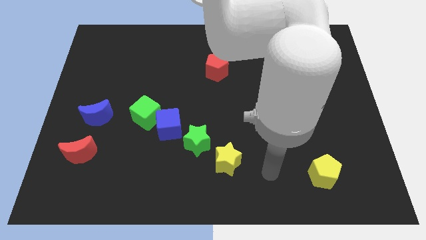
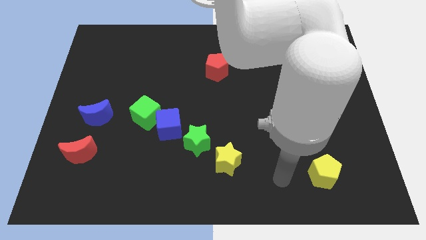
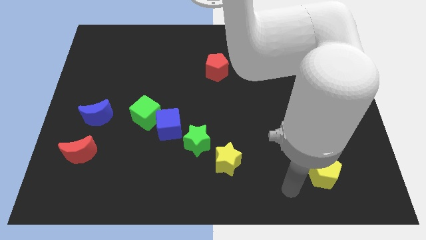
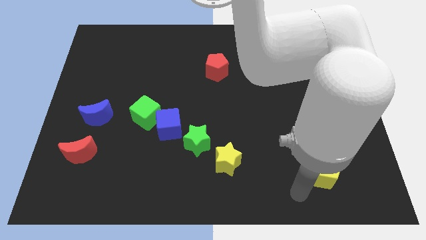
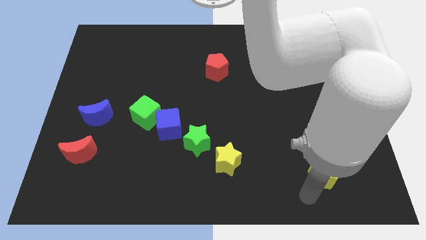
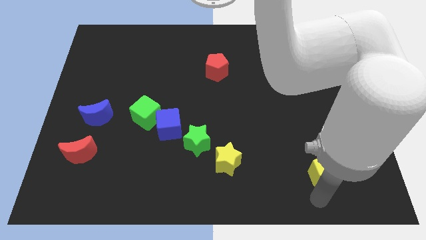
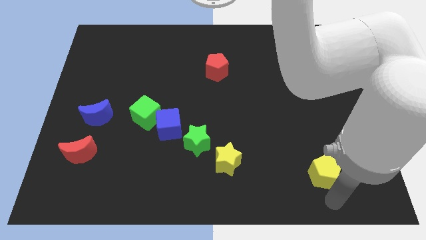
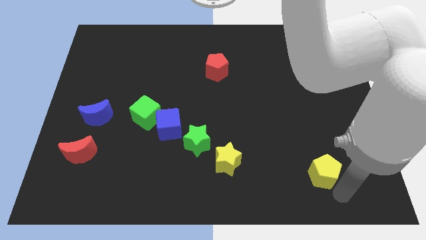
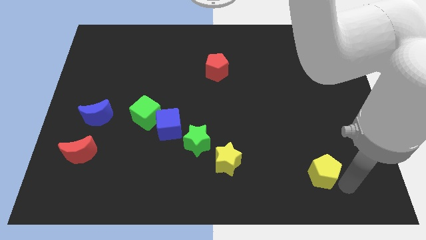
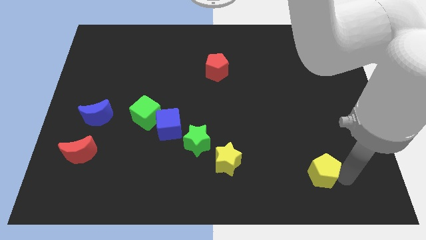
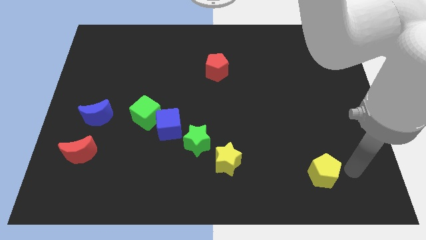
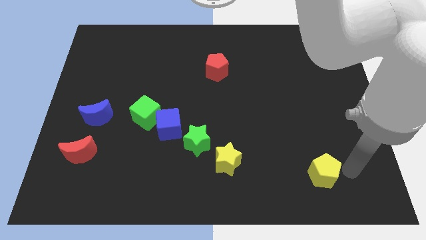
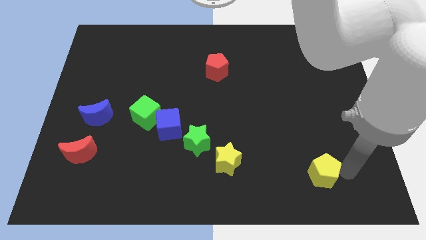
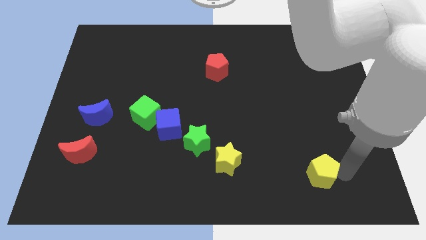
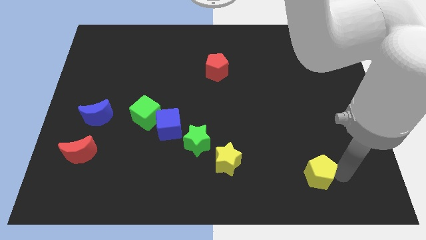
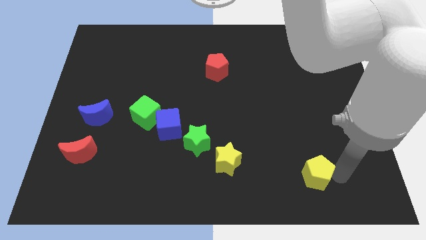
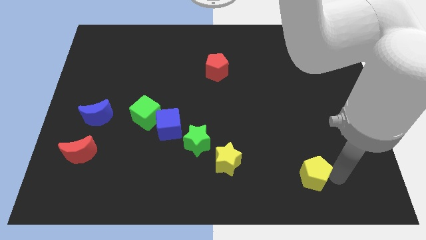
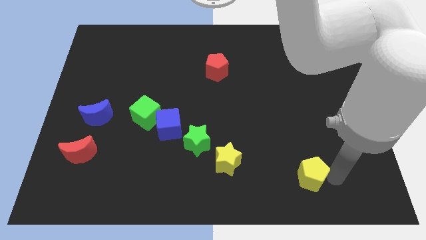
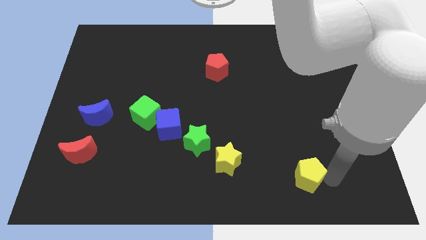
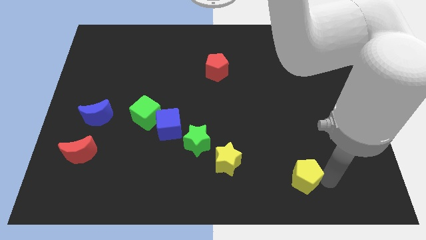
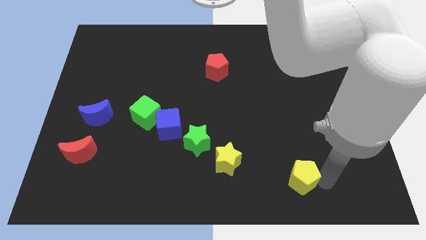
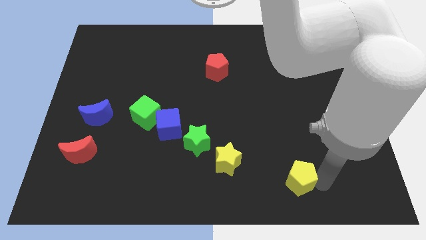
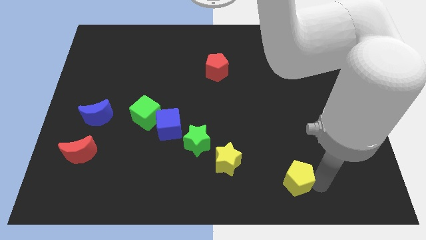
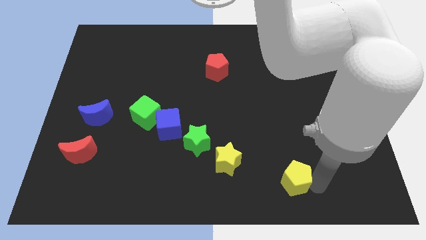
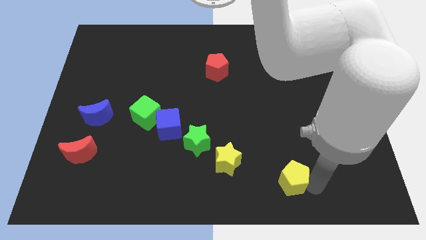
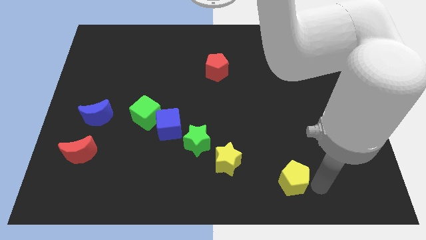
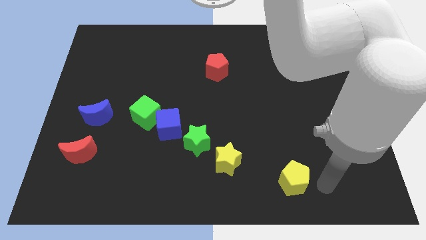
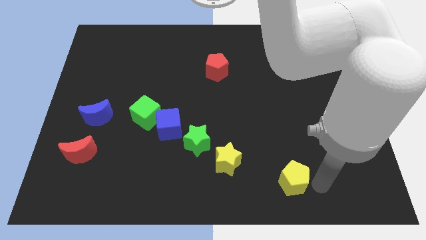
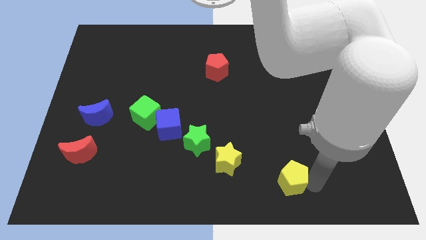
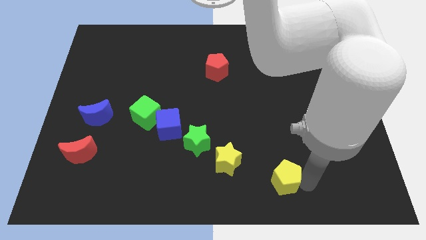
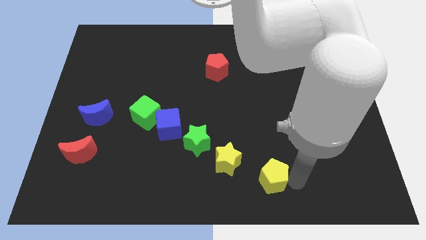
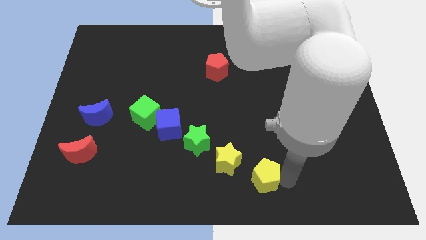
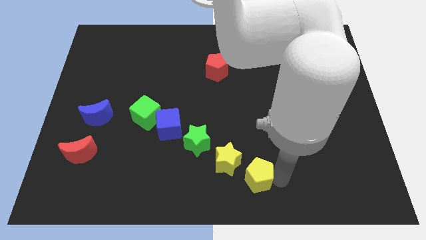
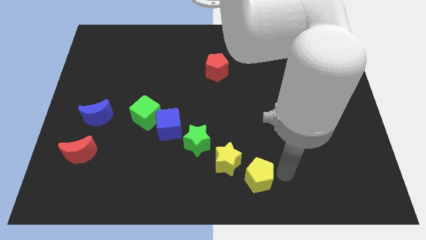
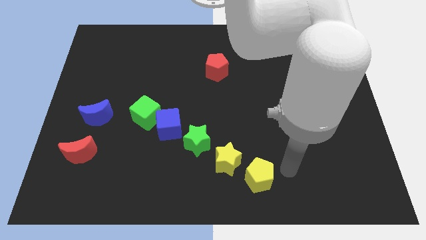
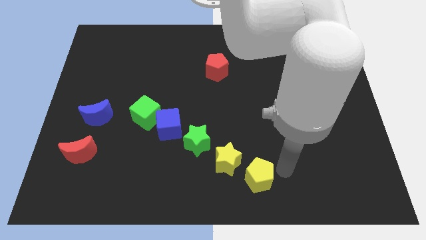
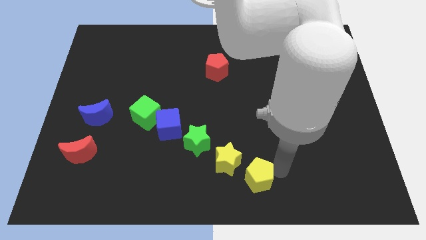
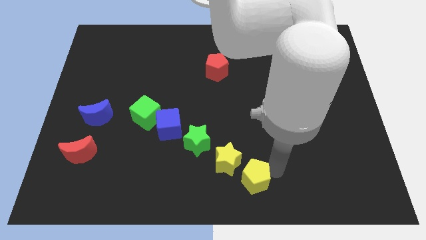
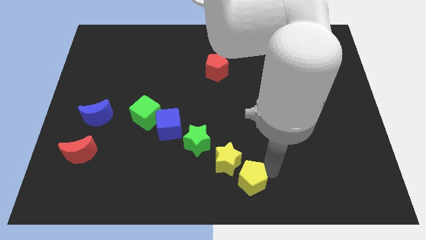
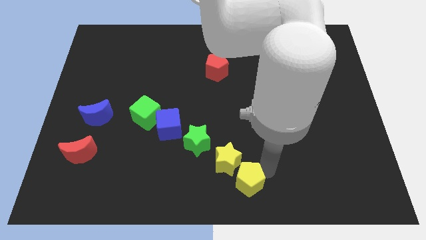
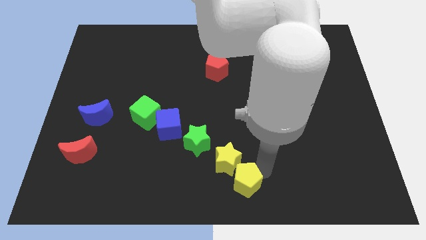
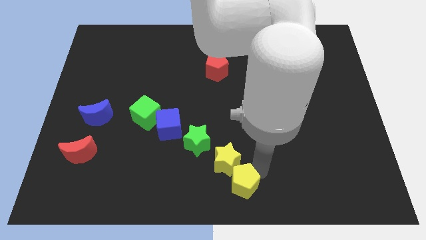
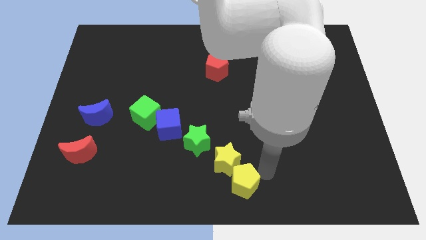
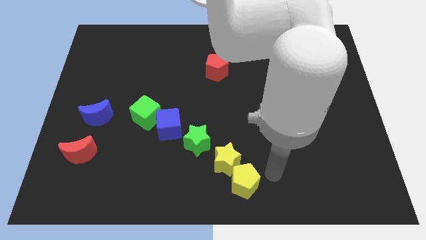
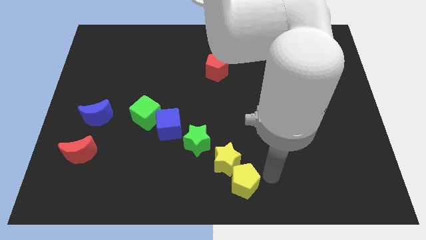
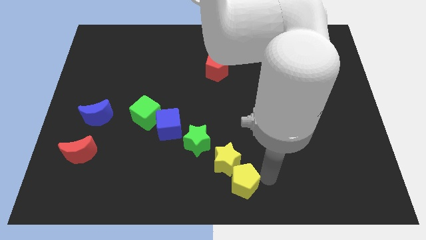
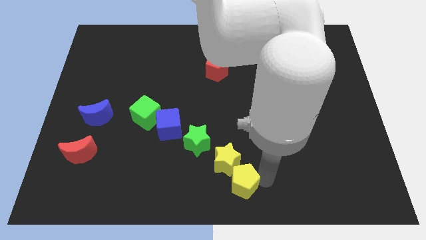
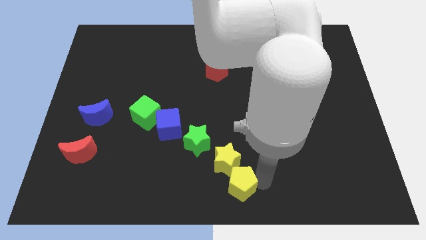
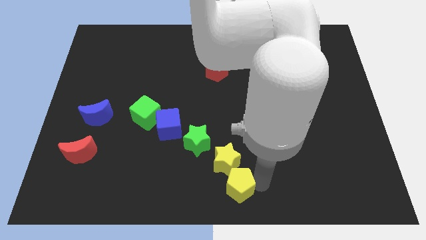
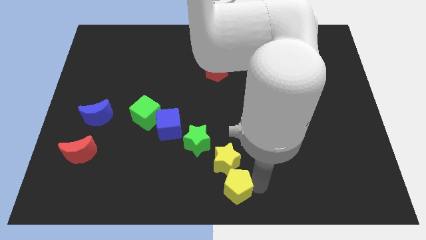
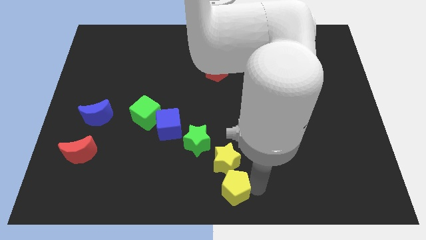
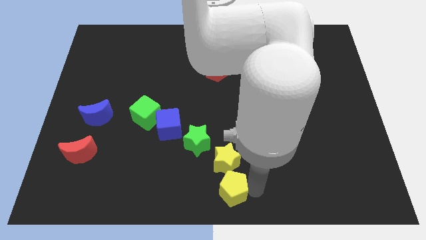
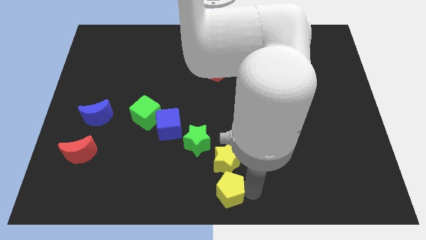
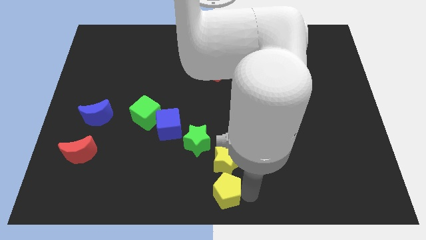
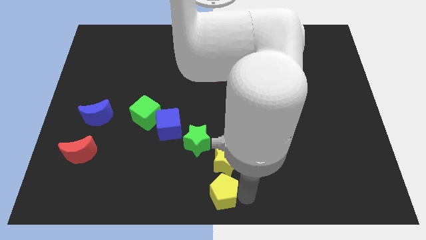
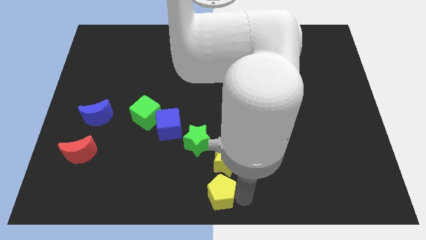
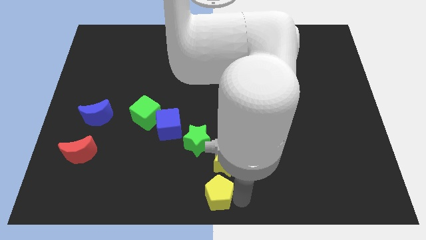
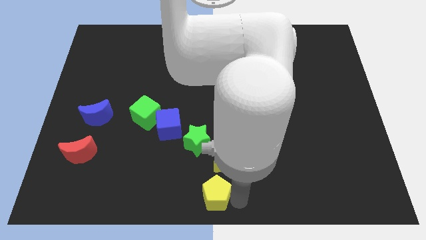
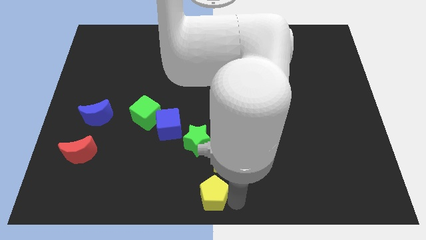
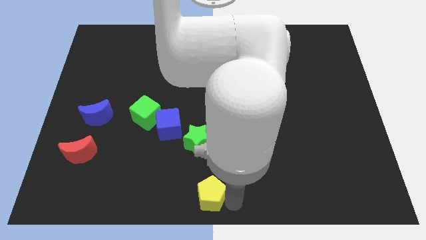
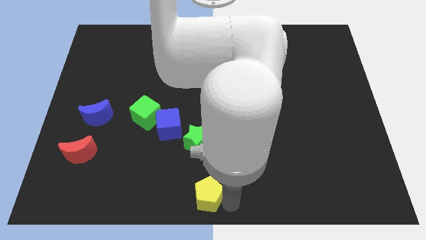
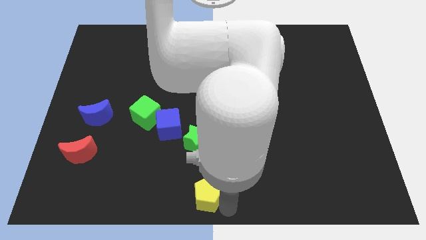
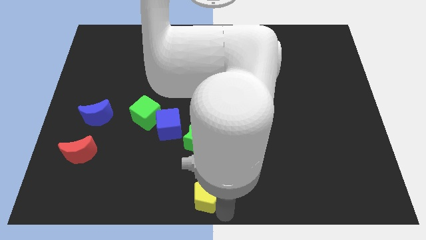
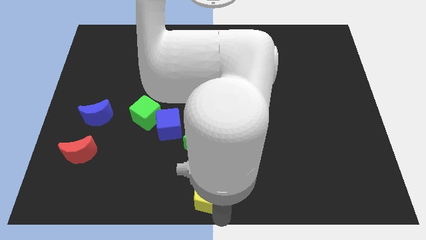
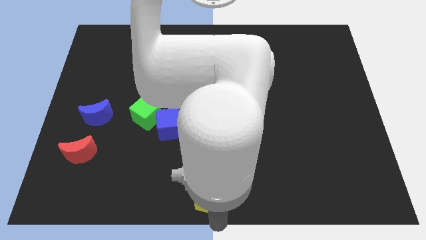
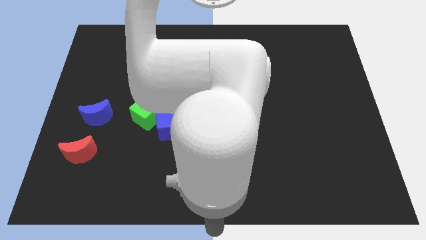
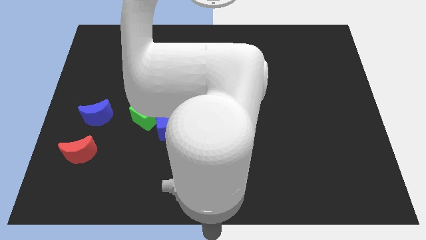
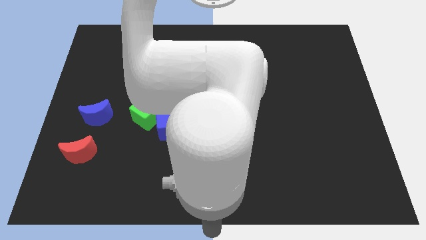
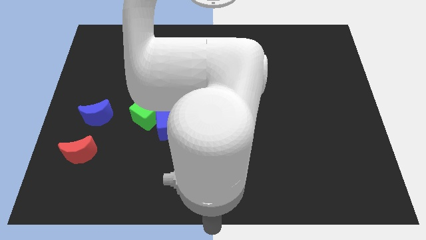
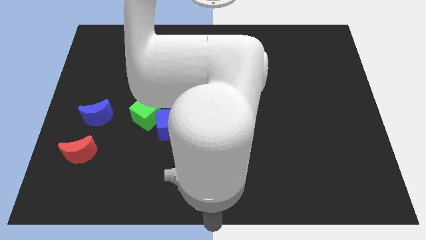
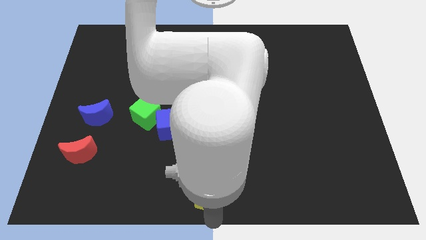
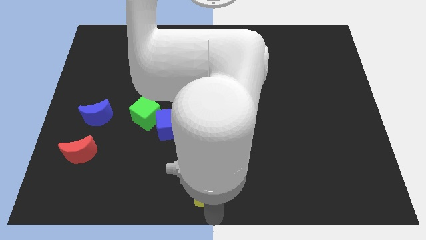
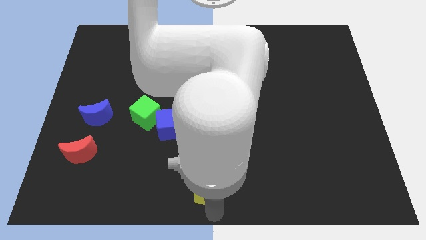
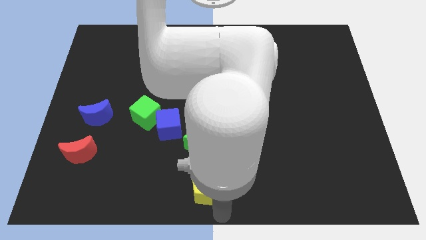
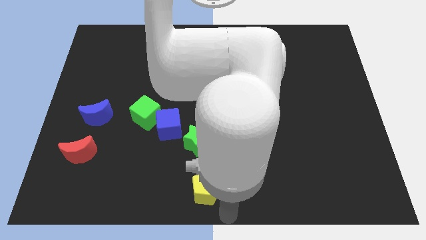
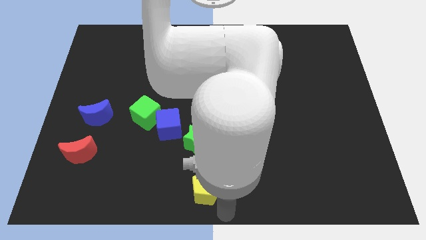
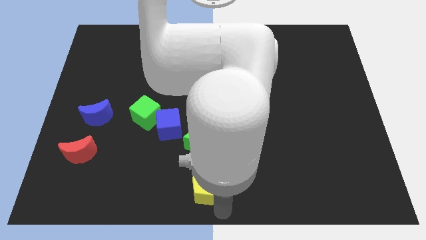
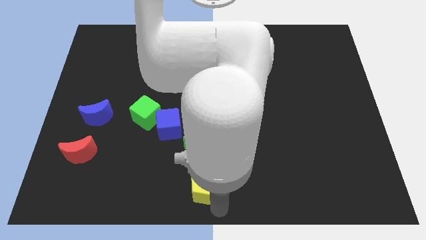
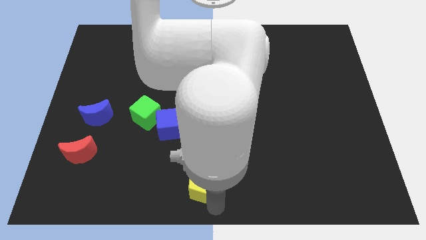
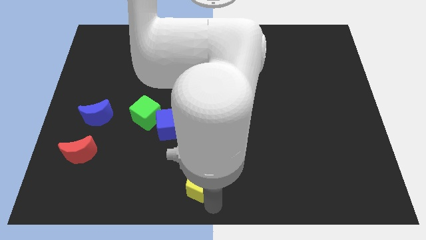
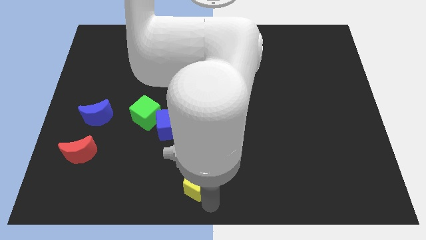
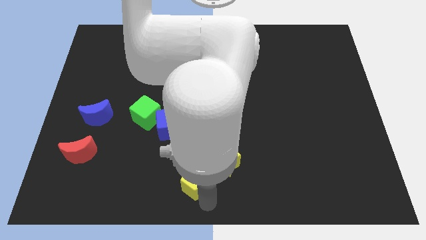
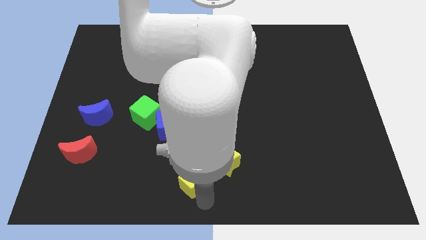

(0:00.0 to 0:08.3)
push the yellow pentagon just left of the yellow star
